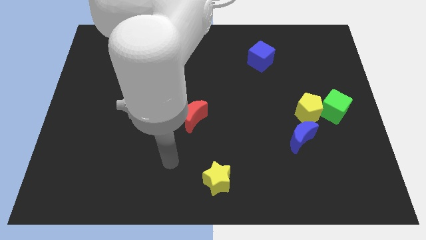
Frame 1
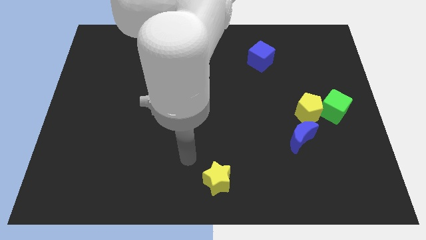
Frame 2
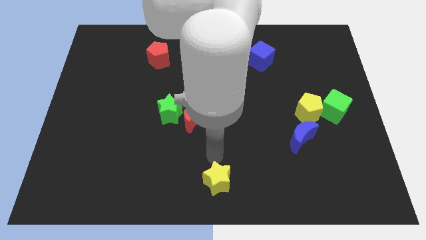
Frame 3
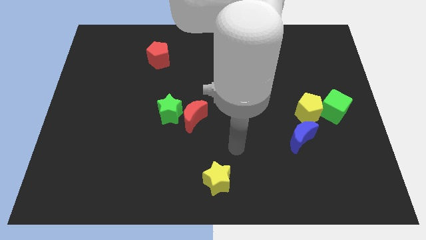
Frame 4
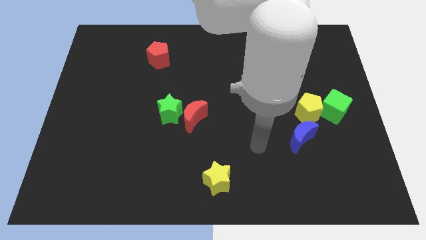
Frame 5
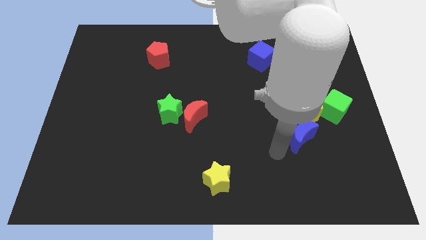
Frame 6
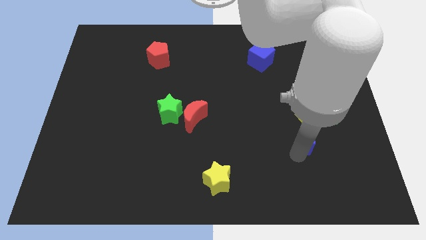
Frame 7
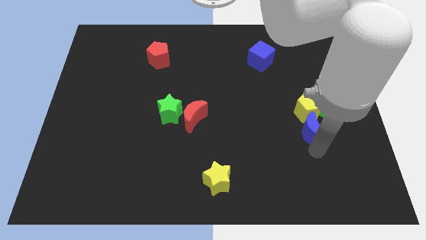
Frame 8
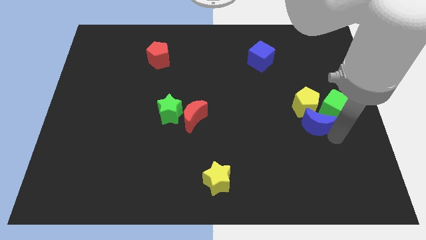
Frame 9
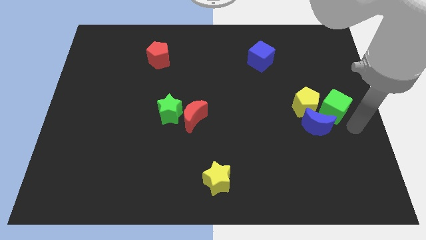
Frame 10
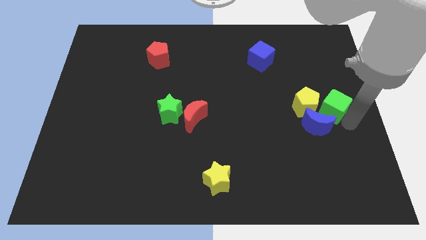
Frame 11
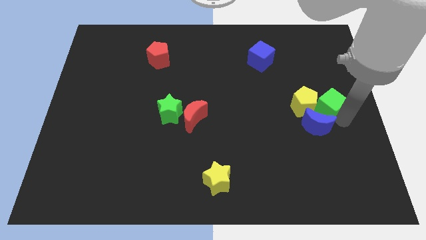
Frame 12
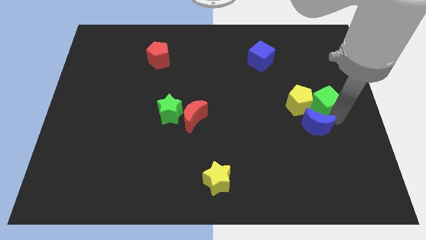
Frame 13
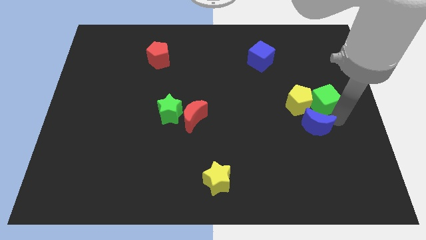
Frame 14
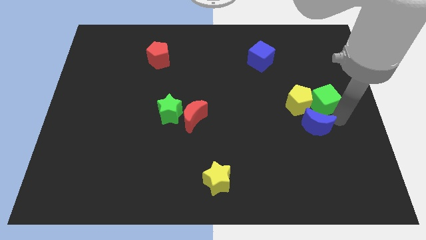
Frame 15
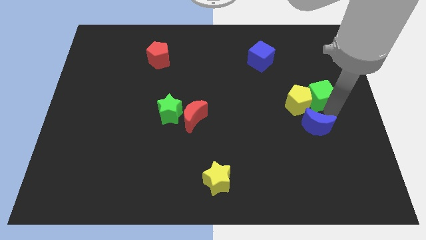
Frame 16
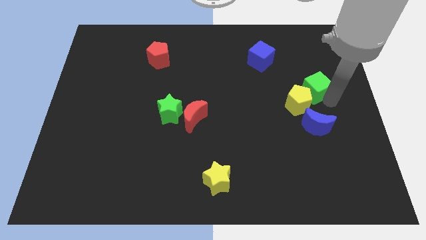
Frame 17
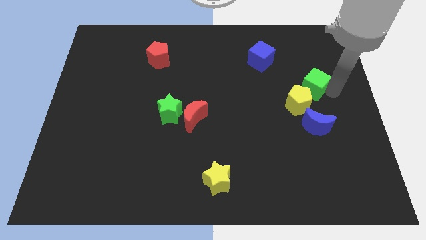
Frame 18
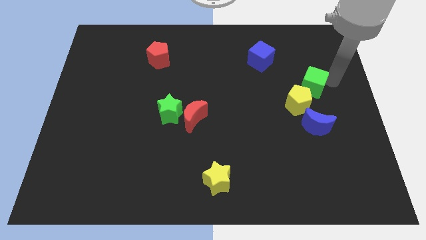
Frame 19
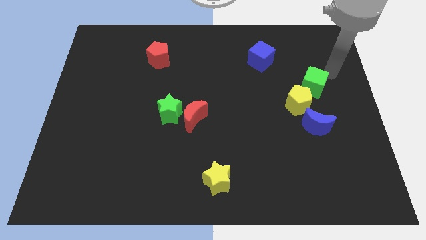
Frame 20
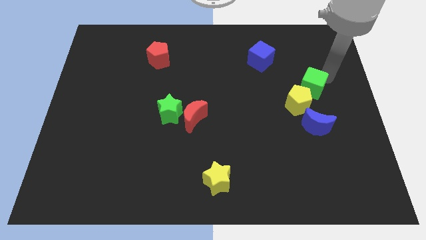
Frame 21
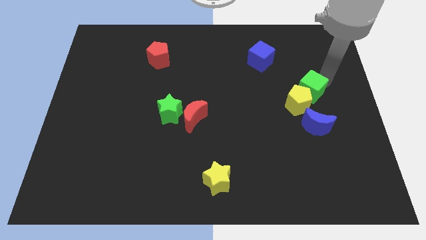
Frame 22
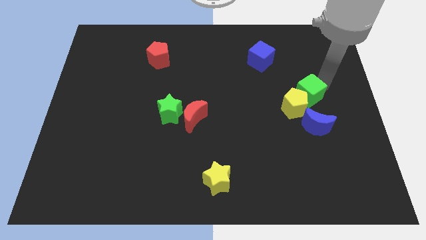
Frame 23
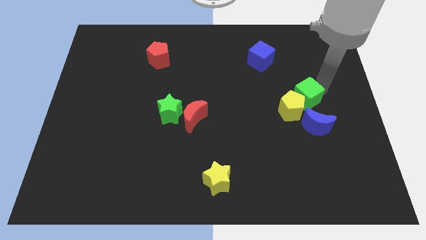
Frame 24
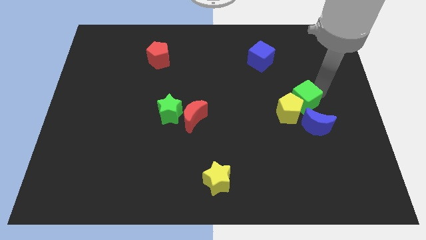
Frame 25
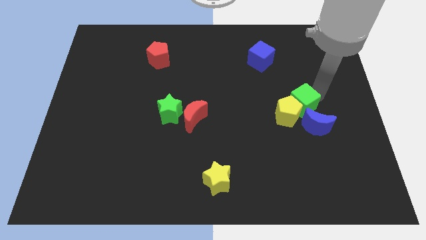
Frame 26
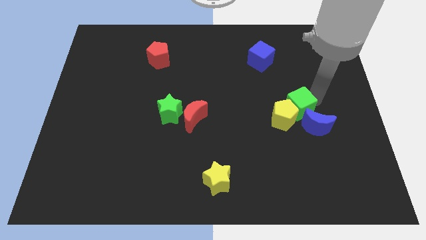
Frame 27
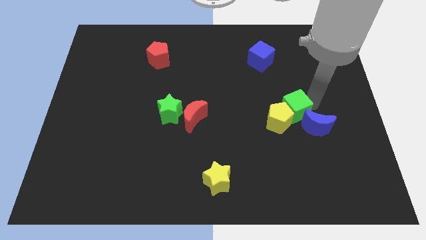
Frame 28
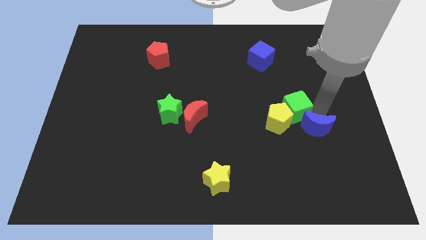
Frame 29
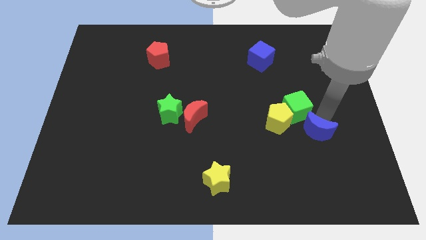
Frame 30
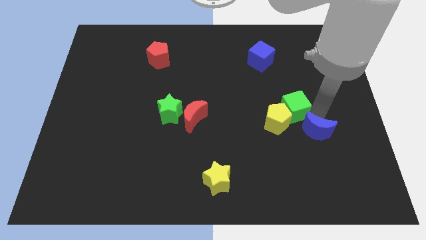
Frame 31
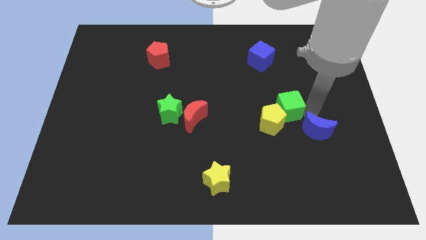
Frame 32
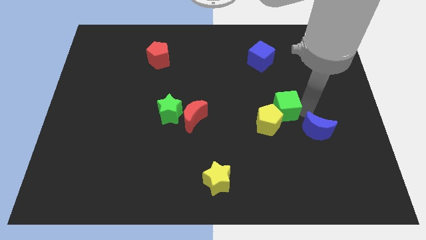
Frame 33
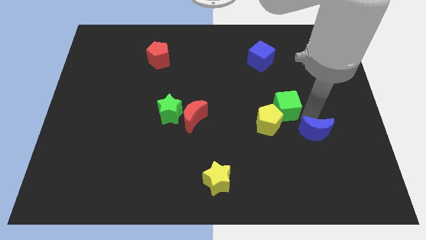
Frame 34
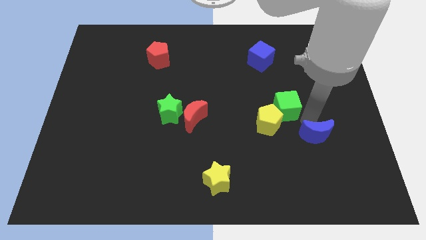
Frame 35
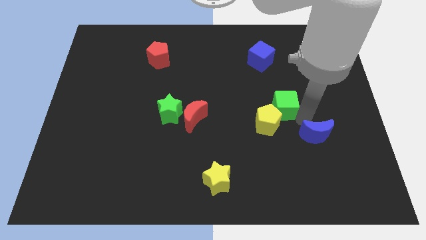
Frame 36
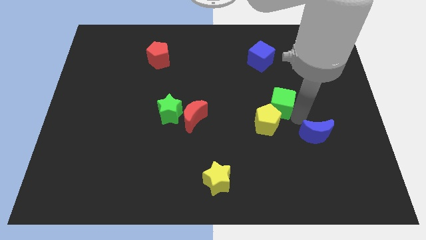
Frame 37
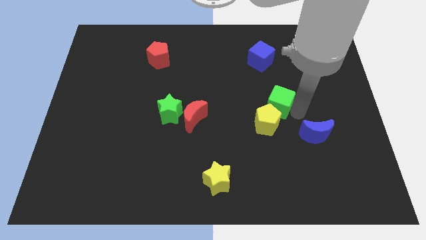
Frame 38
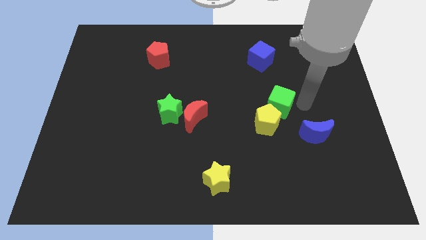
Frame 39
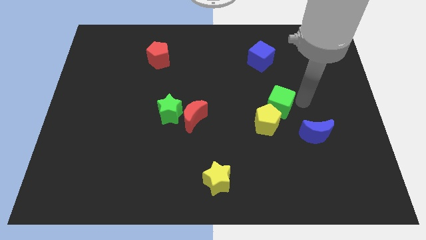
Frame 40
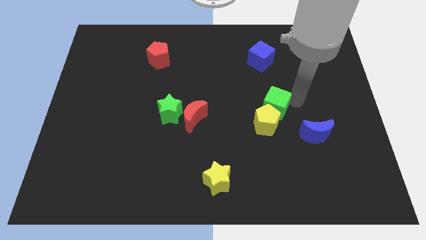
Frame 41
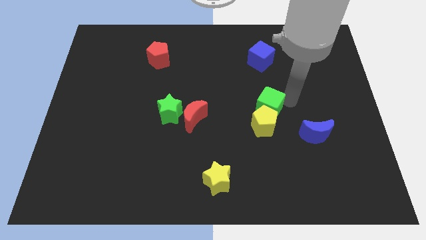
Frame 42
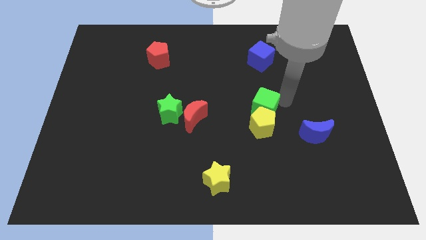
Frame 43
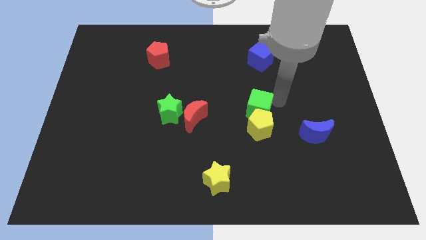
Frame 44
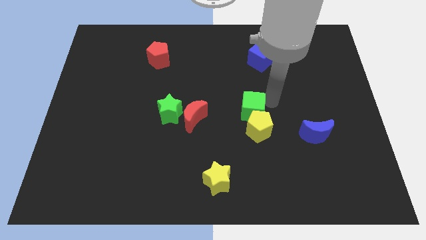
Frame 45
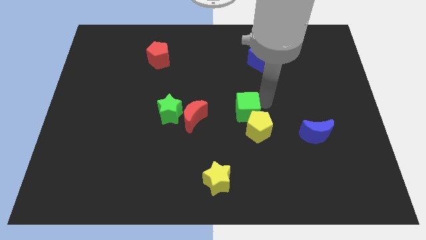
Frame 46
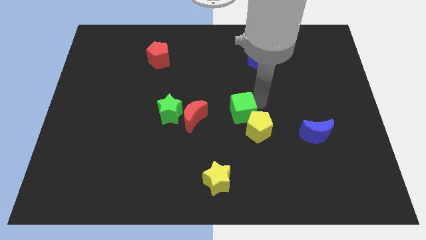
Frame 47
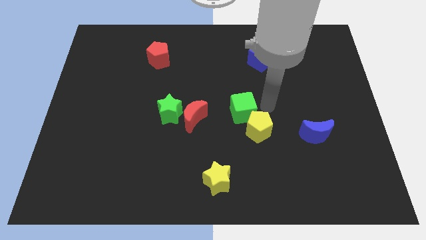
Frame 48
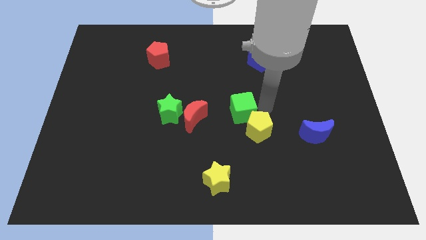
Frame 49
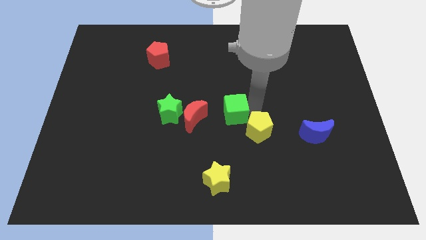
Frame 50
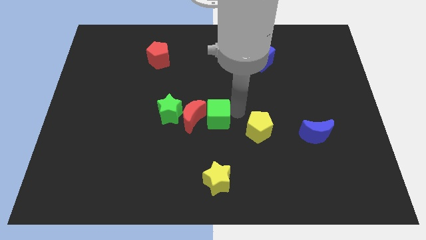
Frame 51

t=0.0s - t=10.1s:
slide the green cube towards the red moon
